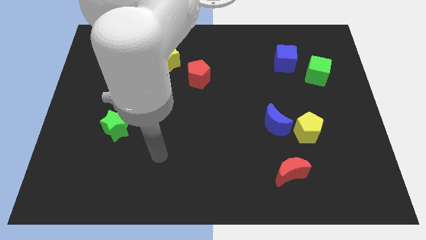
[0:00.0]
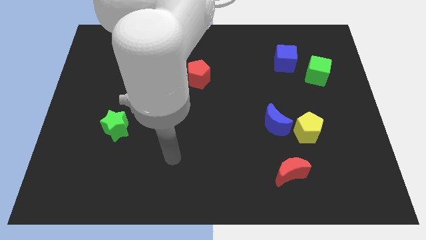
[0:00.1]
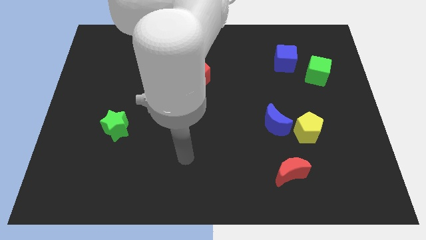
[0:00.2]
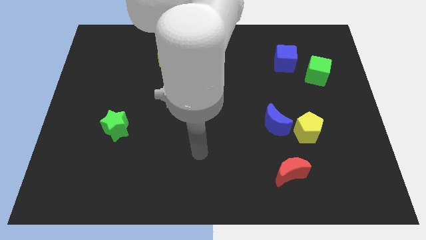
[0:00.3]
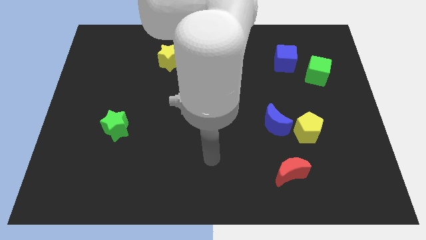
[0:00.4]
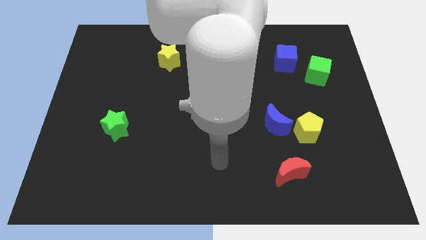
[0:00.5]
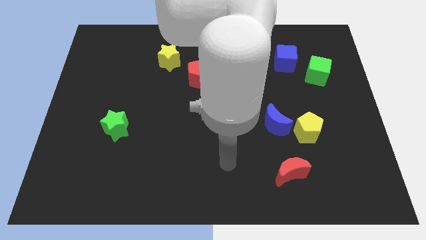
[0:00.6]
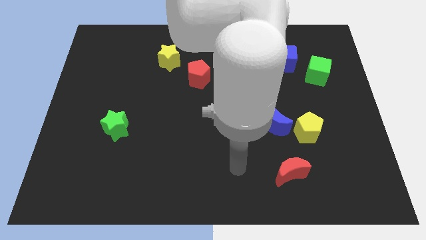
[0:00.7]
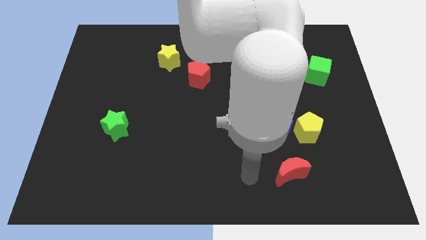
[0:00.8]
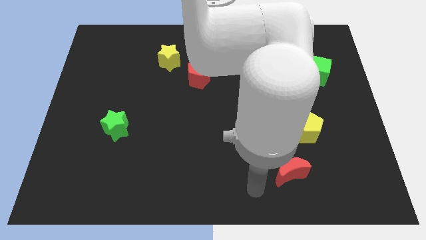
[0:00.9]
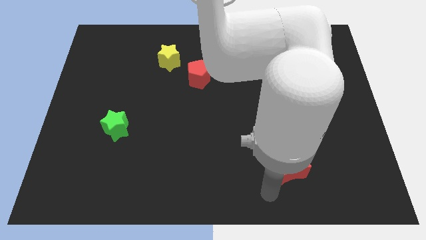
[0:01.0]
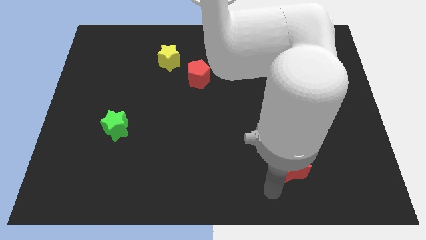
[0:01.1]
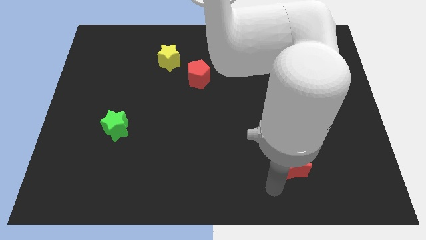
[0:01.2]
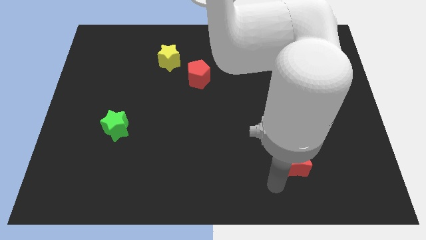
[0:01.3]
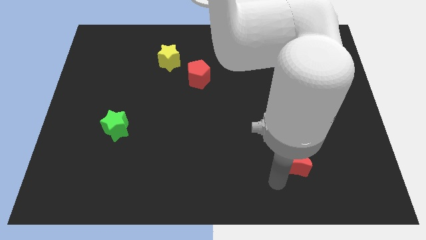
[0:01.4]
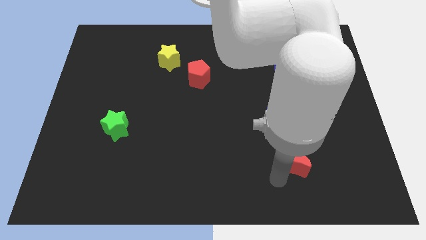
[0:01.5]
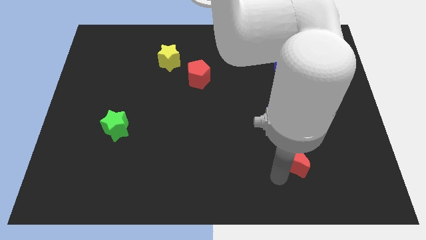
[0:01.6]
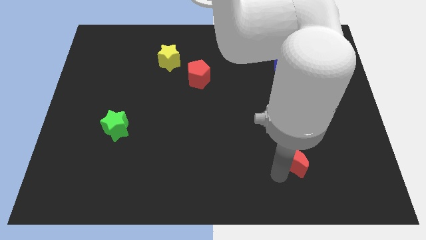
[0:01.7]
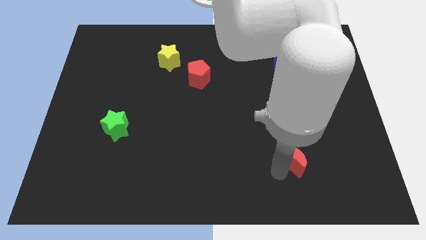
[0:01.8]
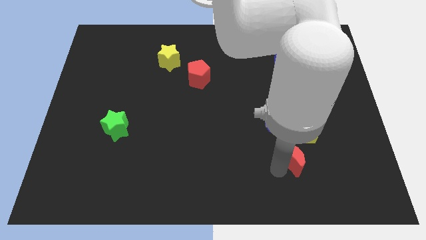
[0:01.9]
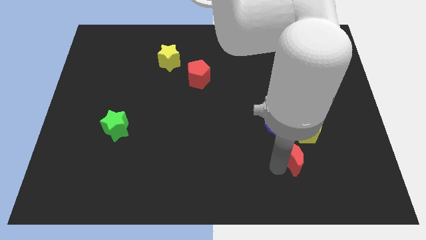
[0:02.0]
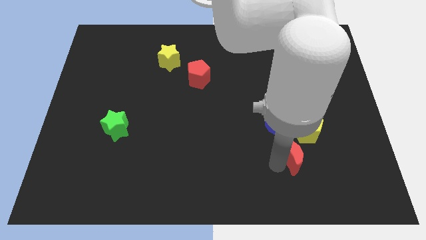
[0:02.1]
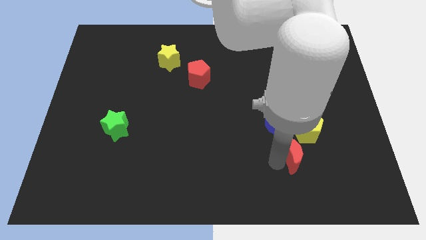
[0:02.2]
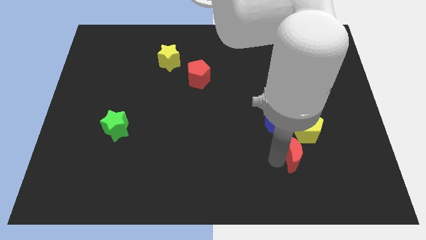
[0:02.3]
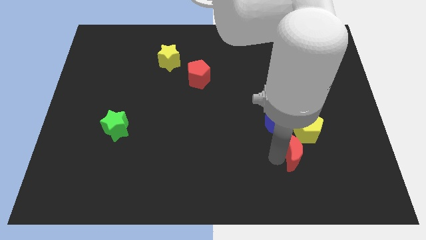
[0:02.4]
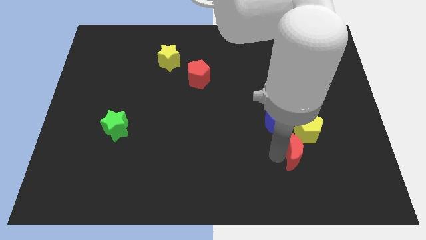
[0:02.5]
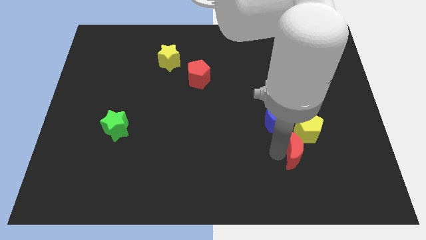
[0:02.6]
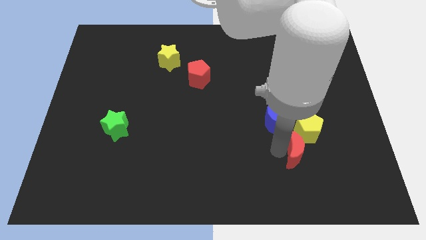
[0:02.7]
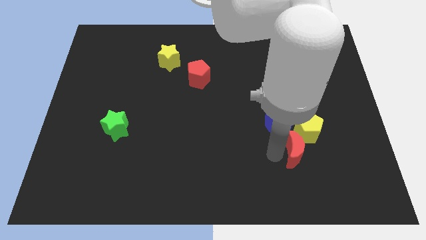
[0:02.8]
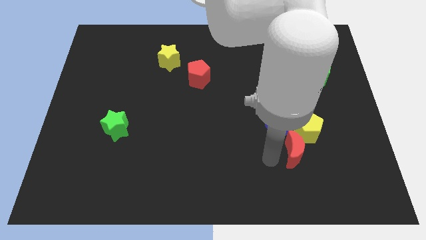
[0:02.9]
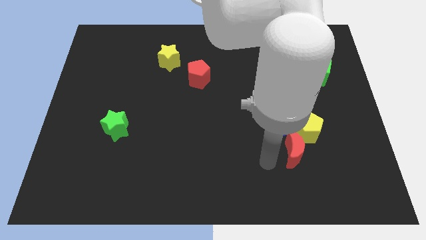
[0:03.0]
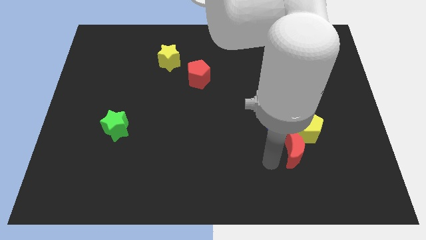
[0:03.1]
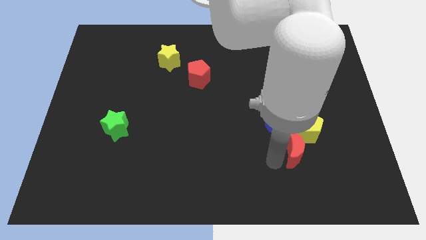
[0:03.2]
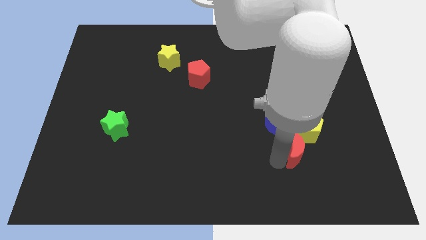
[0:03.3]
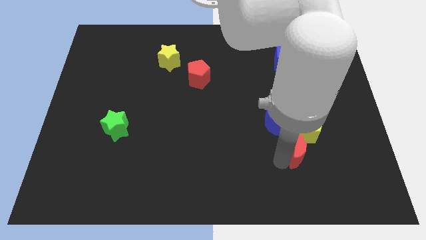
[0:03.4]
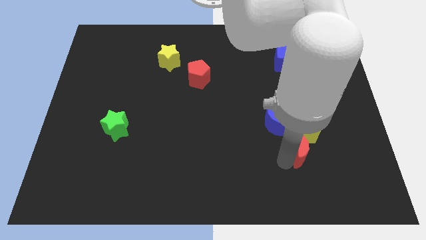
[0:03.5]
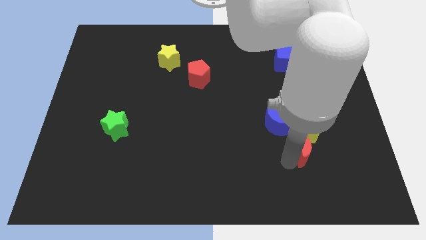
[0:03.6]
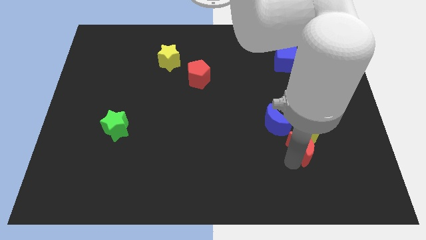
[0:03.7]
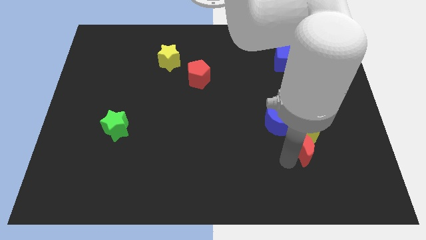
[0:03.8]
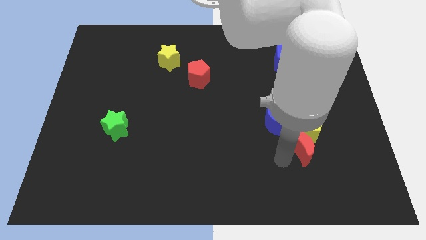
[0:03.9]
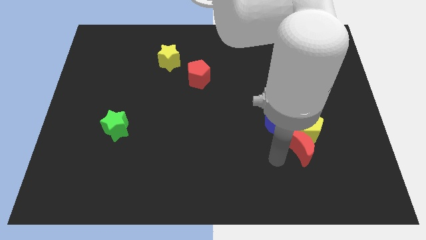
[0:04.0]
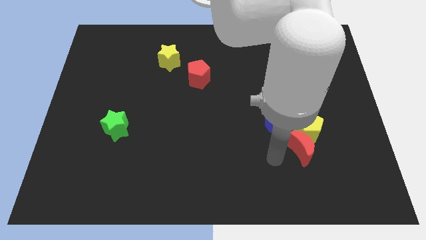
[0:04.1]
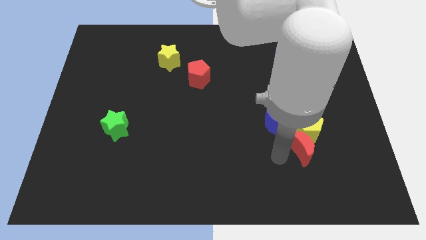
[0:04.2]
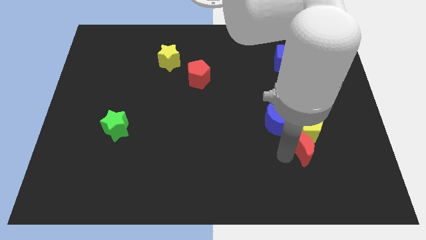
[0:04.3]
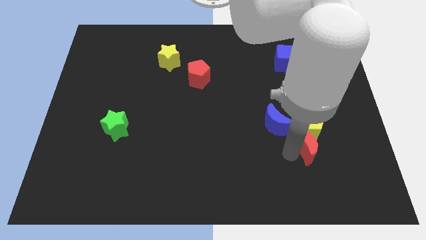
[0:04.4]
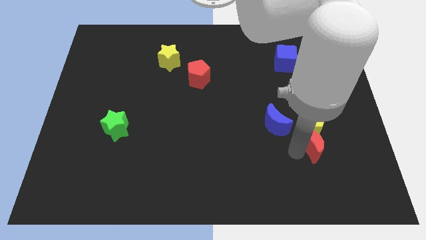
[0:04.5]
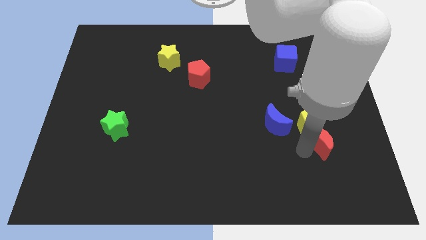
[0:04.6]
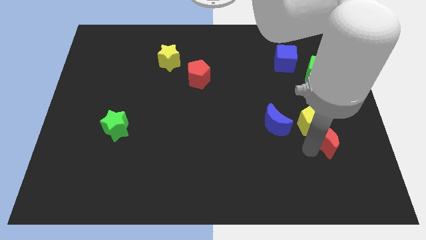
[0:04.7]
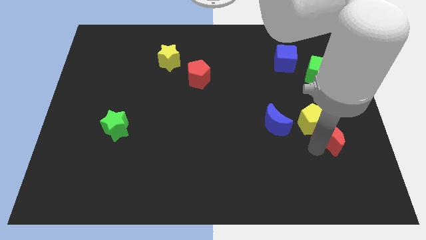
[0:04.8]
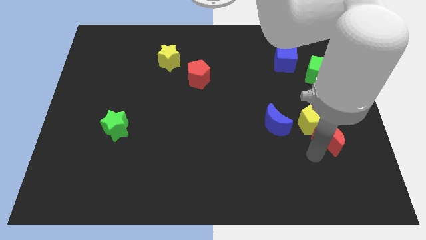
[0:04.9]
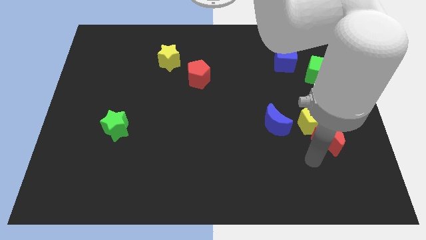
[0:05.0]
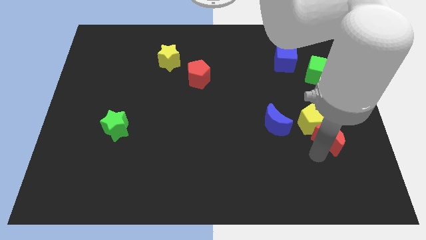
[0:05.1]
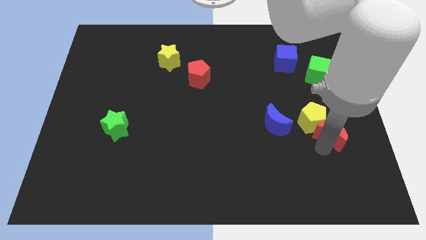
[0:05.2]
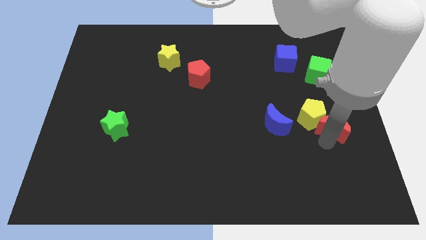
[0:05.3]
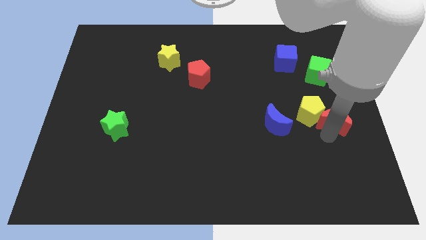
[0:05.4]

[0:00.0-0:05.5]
move the red moon to the right side of the board
